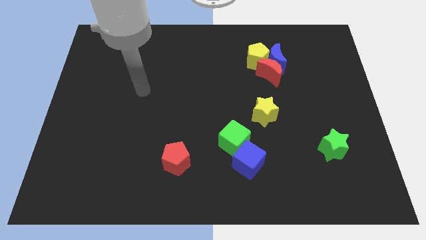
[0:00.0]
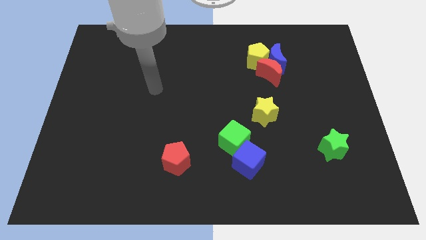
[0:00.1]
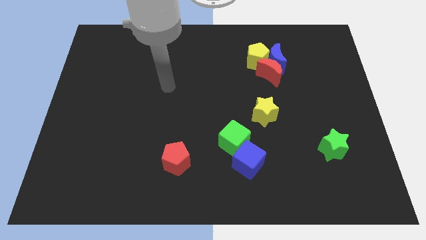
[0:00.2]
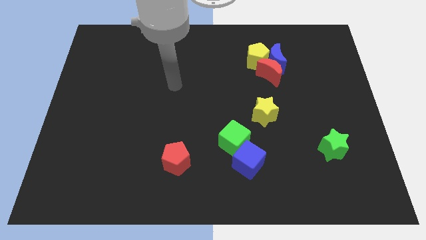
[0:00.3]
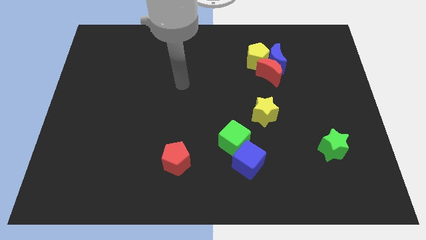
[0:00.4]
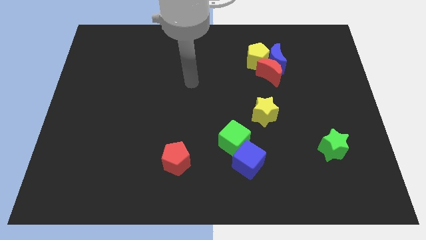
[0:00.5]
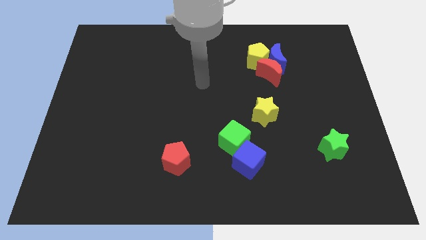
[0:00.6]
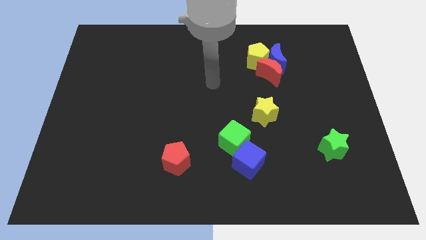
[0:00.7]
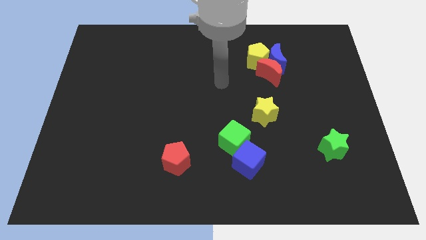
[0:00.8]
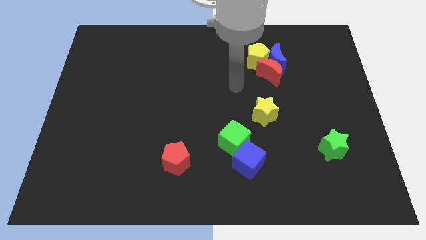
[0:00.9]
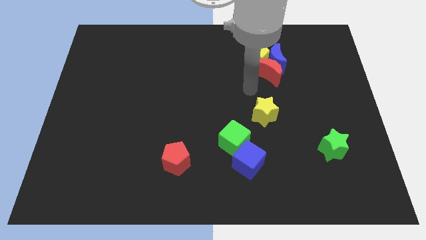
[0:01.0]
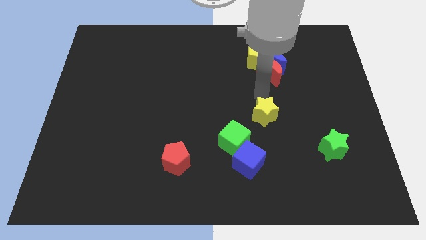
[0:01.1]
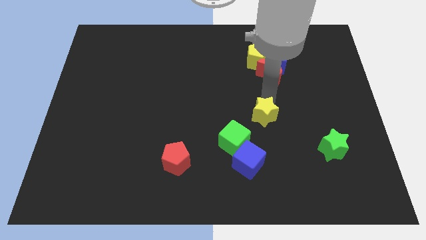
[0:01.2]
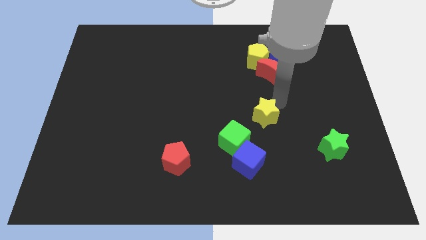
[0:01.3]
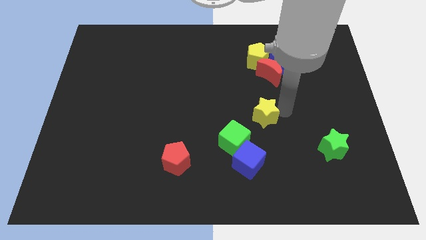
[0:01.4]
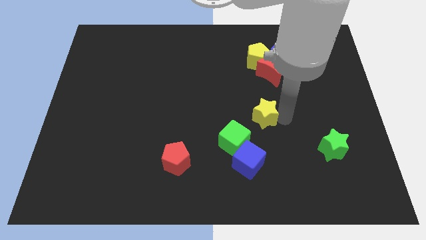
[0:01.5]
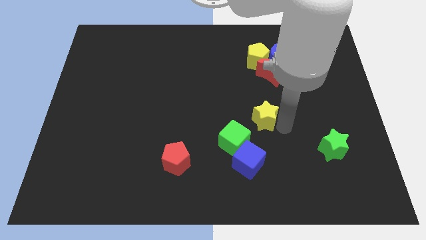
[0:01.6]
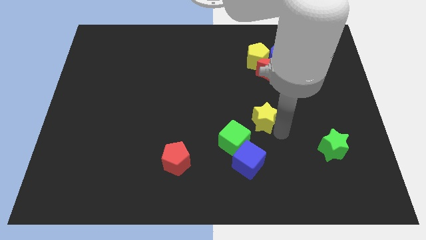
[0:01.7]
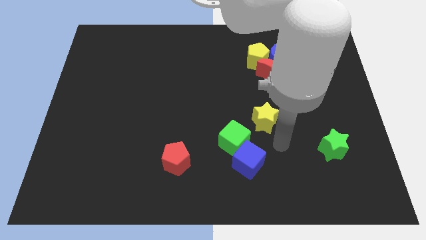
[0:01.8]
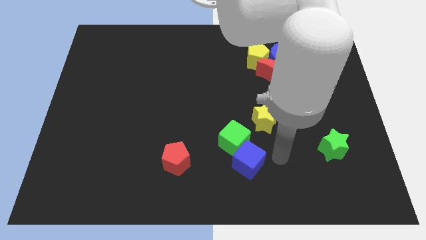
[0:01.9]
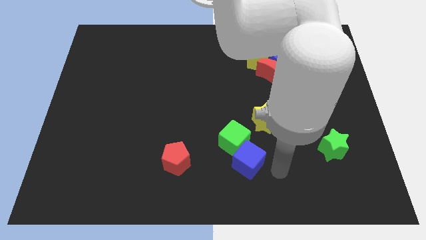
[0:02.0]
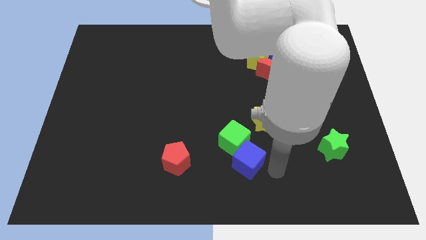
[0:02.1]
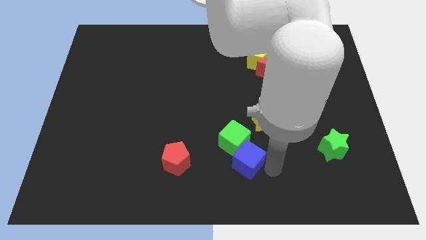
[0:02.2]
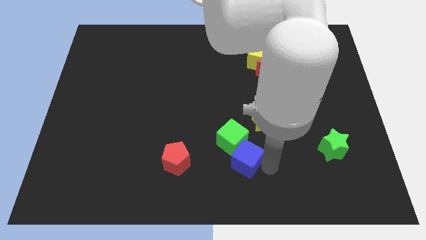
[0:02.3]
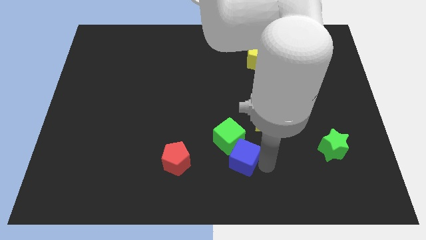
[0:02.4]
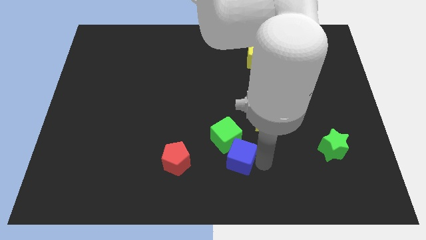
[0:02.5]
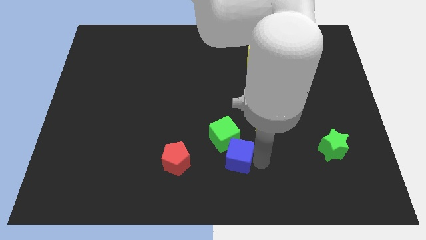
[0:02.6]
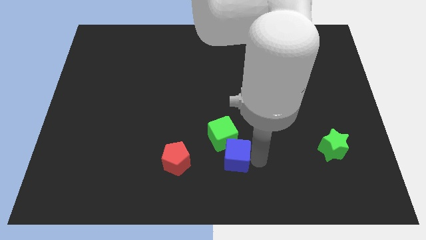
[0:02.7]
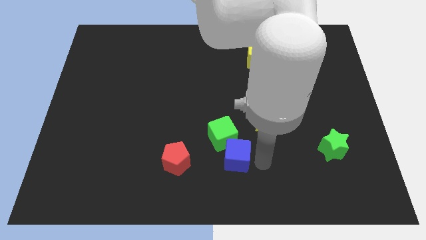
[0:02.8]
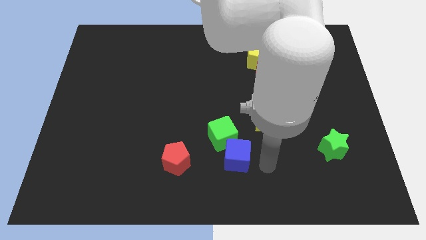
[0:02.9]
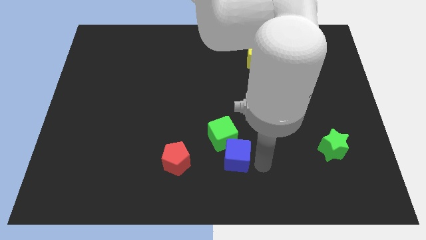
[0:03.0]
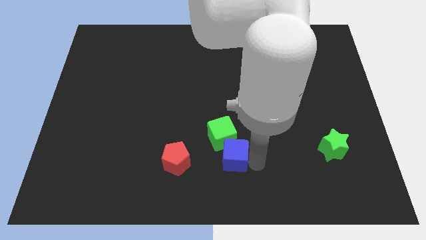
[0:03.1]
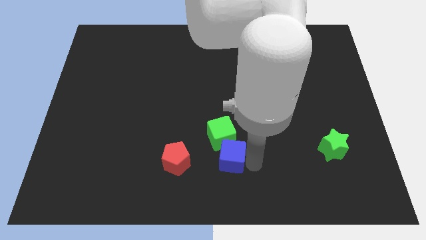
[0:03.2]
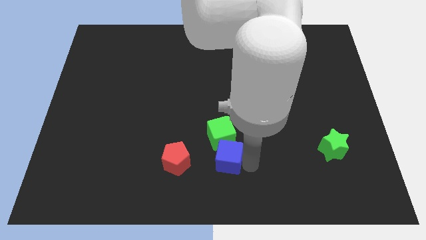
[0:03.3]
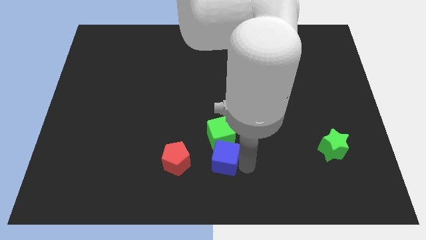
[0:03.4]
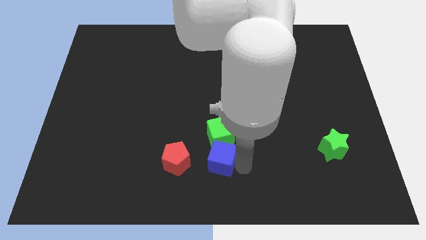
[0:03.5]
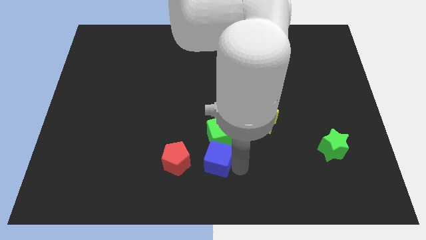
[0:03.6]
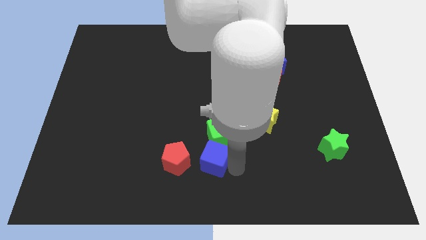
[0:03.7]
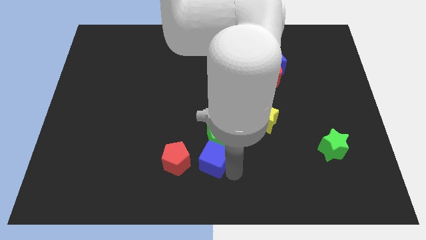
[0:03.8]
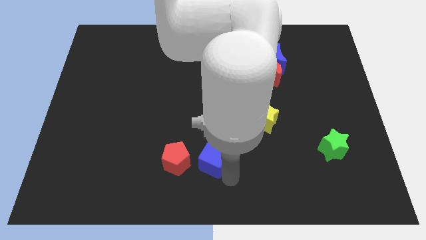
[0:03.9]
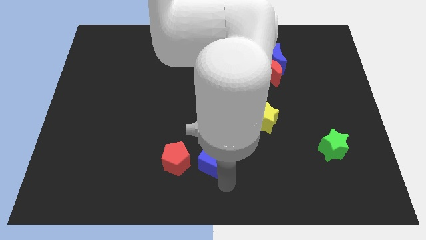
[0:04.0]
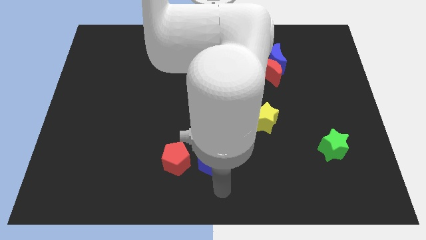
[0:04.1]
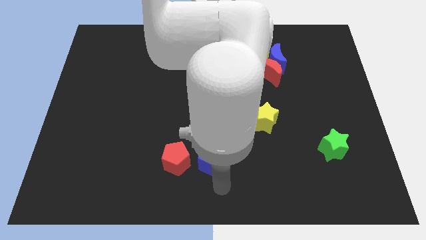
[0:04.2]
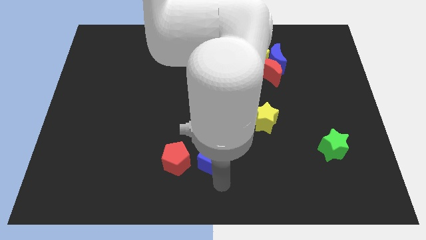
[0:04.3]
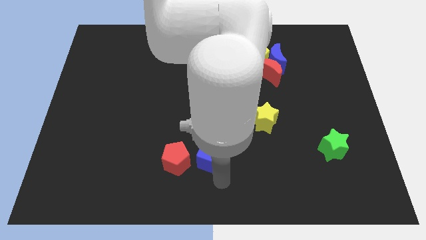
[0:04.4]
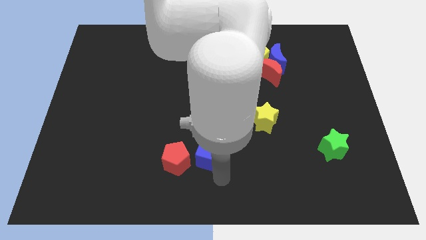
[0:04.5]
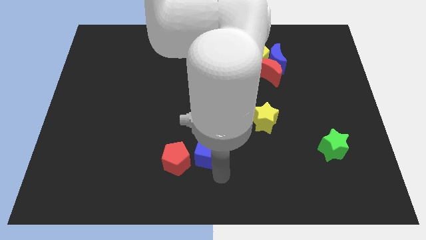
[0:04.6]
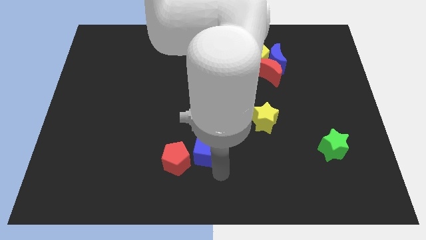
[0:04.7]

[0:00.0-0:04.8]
slightly slide the blue cube upwards and left

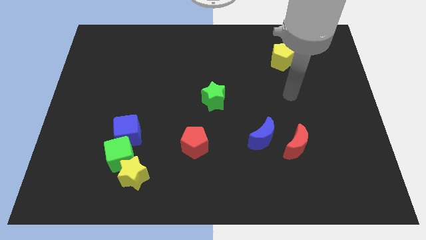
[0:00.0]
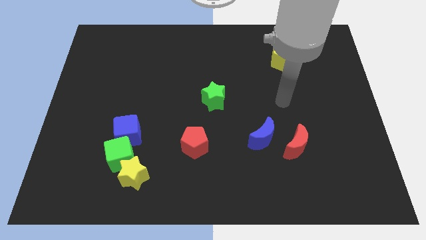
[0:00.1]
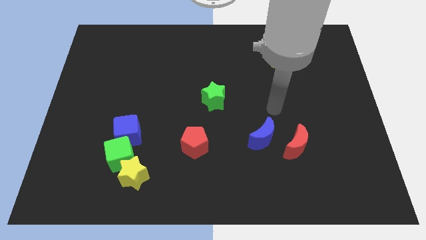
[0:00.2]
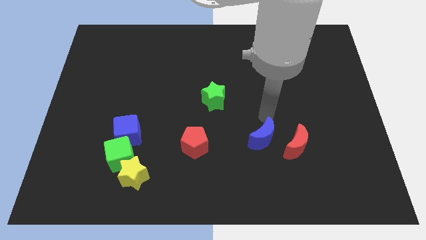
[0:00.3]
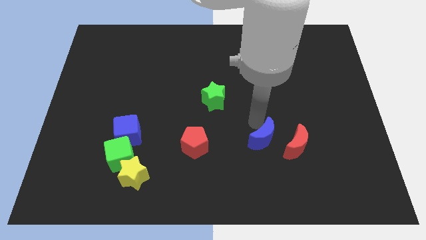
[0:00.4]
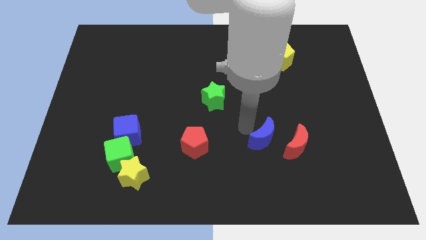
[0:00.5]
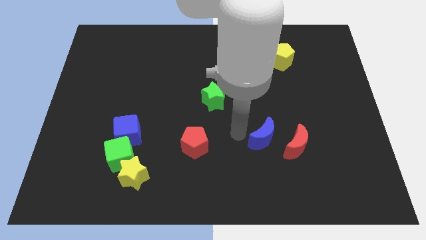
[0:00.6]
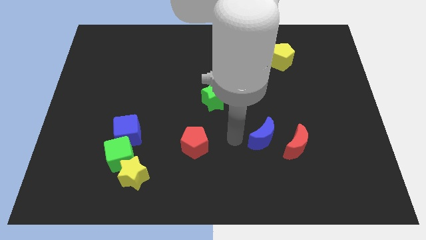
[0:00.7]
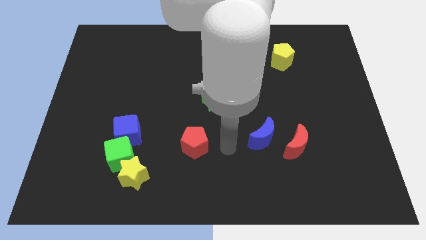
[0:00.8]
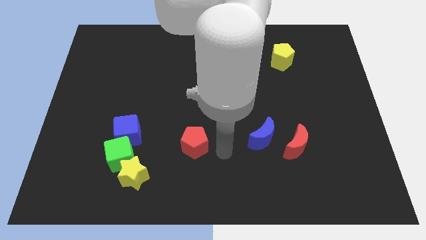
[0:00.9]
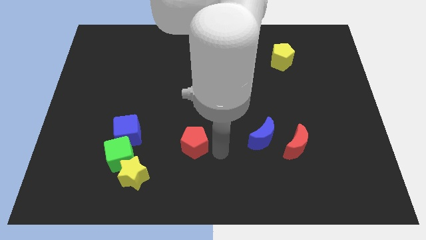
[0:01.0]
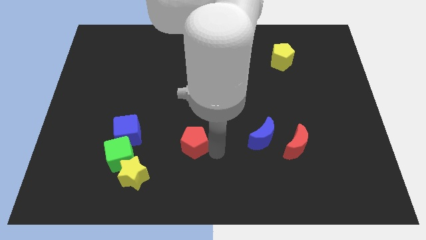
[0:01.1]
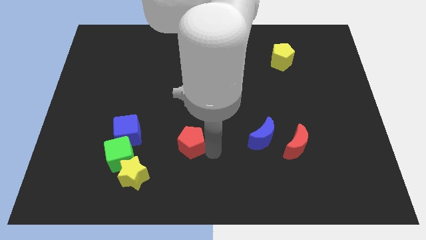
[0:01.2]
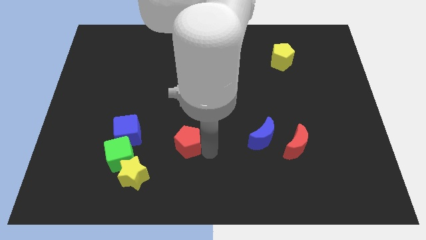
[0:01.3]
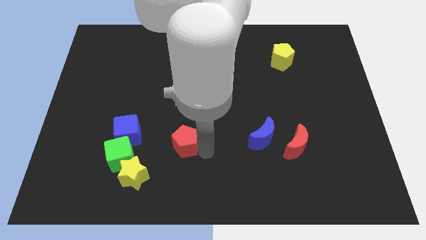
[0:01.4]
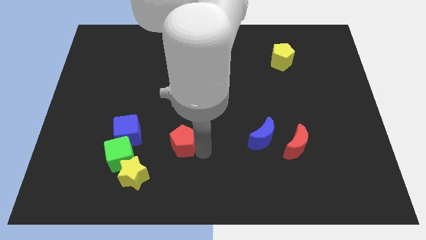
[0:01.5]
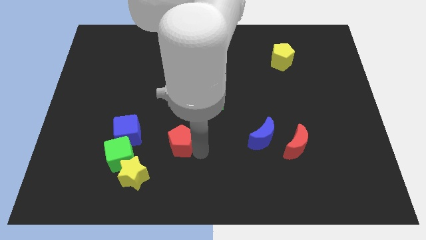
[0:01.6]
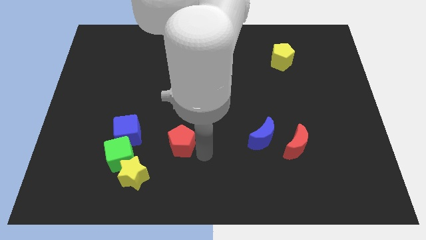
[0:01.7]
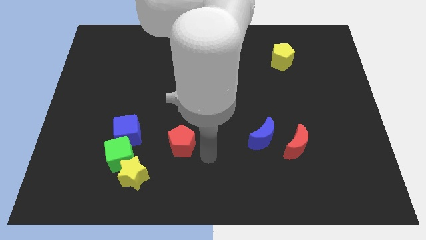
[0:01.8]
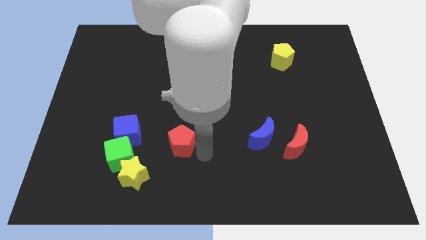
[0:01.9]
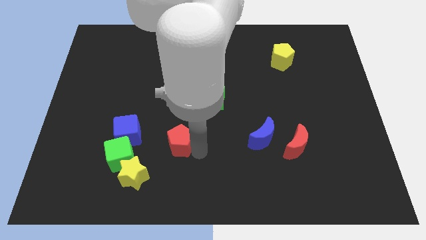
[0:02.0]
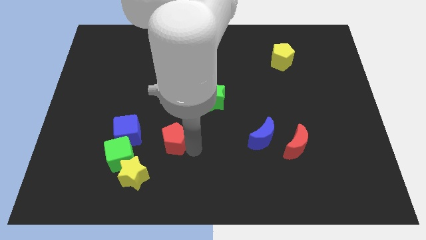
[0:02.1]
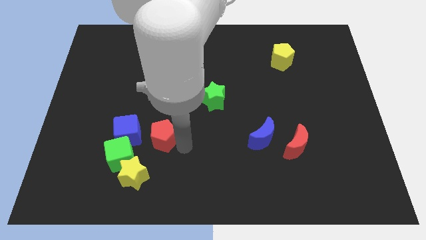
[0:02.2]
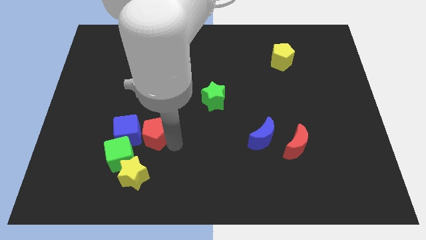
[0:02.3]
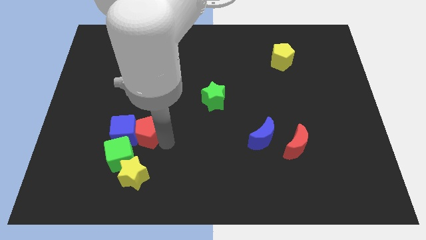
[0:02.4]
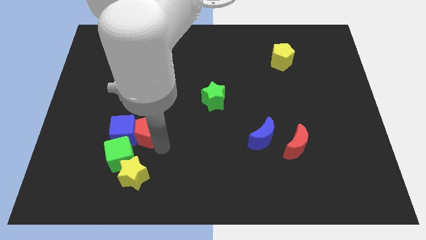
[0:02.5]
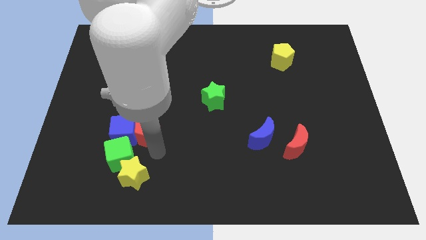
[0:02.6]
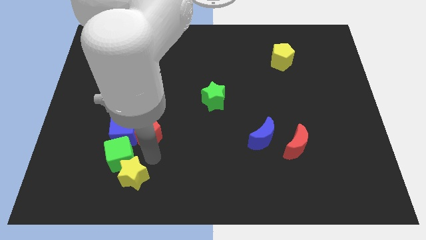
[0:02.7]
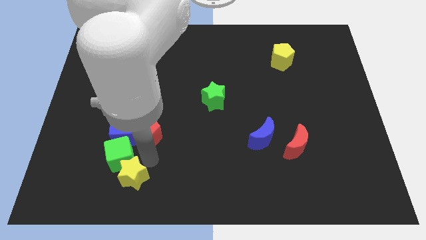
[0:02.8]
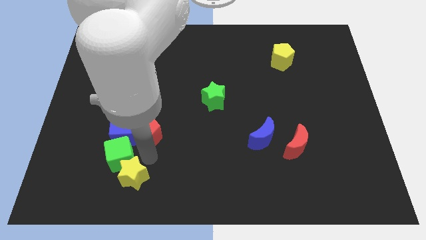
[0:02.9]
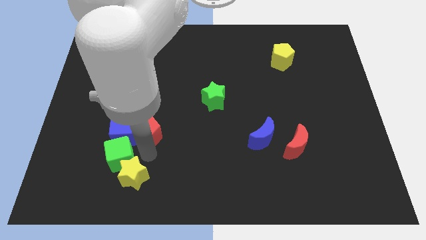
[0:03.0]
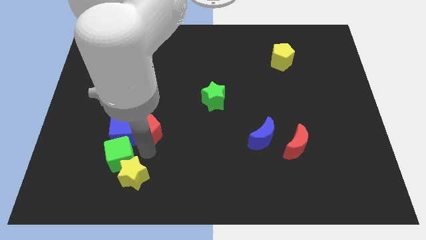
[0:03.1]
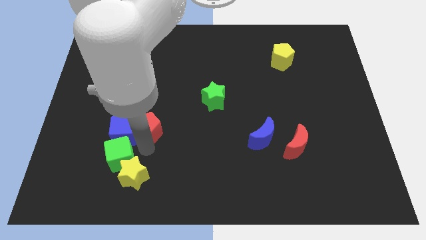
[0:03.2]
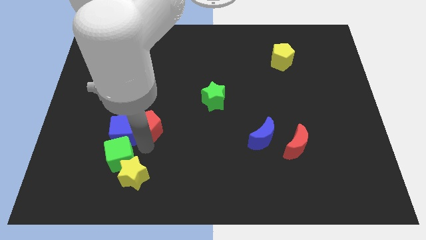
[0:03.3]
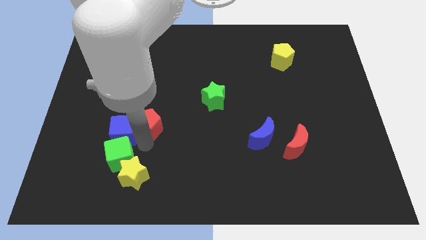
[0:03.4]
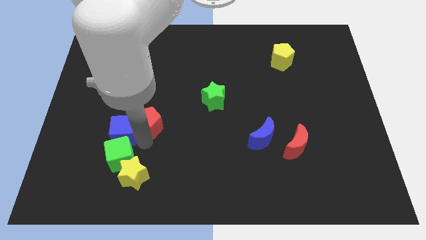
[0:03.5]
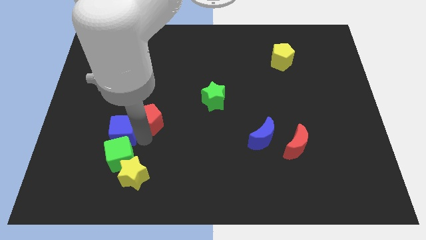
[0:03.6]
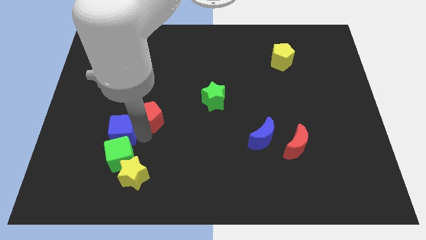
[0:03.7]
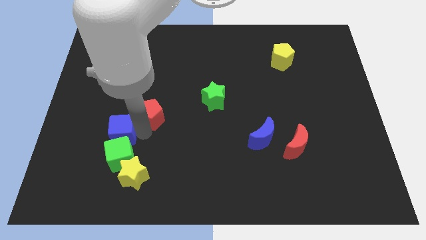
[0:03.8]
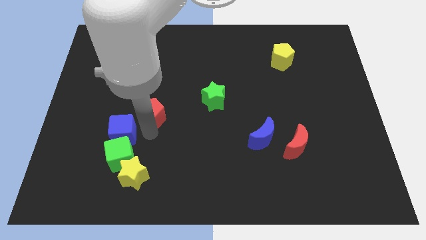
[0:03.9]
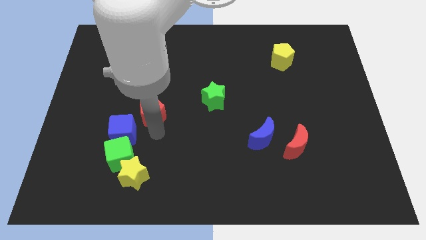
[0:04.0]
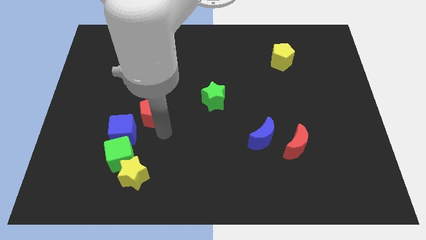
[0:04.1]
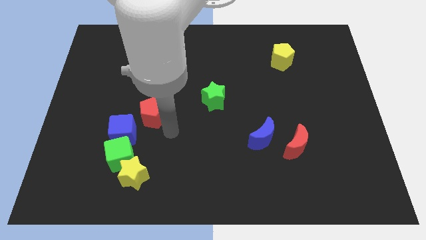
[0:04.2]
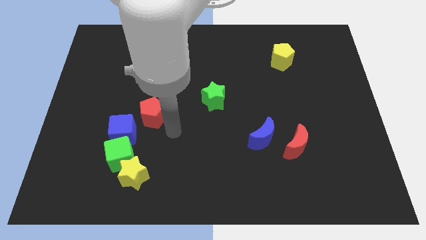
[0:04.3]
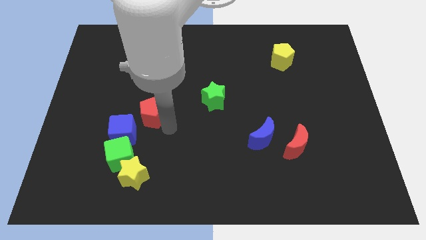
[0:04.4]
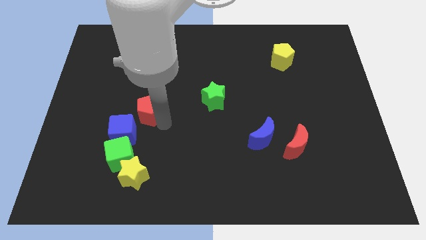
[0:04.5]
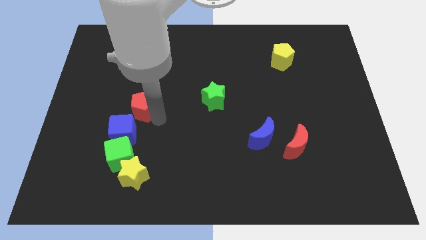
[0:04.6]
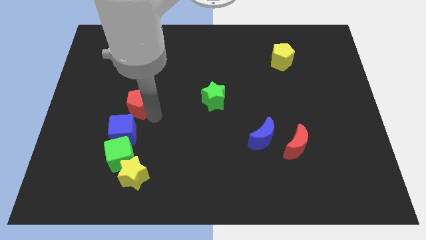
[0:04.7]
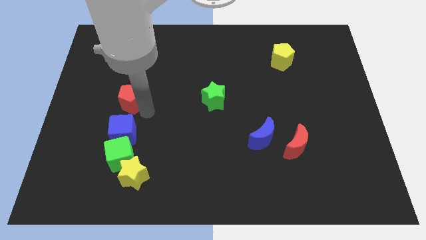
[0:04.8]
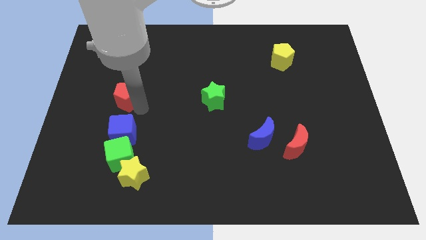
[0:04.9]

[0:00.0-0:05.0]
slide the red pentagon up and to the left diagonally
